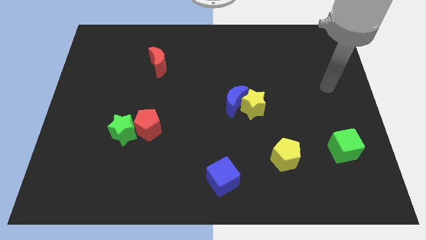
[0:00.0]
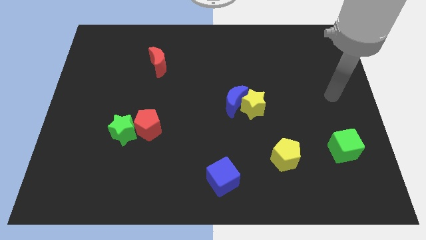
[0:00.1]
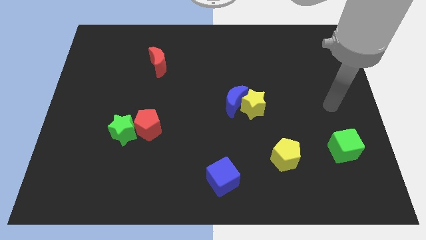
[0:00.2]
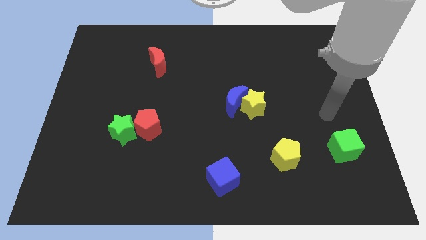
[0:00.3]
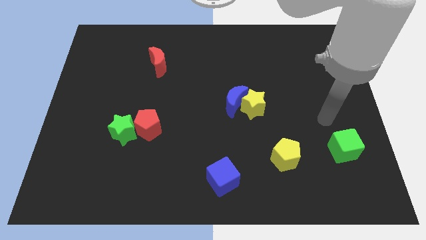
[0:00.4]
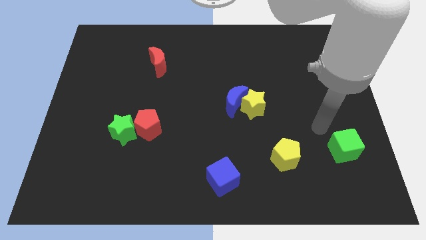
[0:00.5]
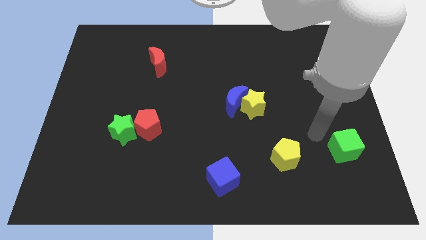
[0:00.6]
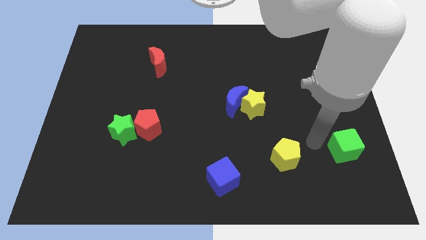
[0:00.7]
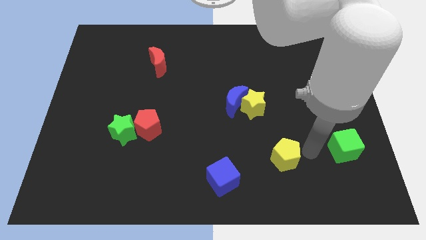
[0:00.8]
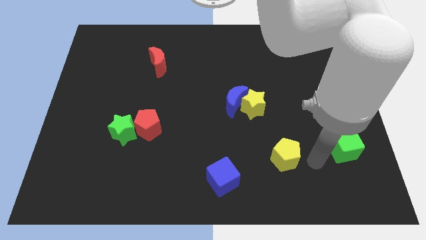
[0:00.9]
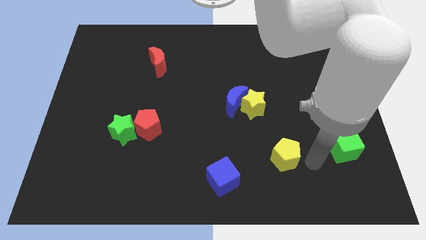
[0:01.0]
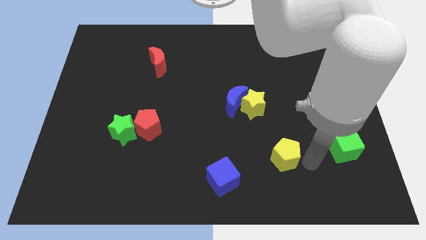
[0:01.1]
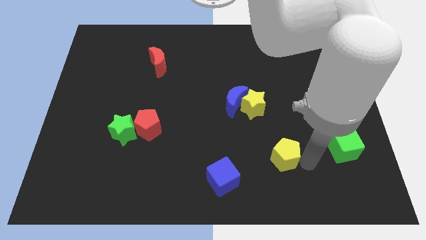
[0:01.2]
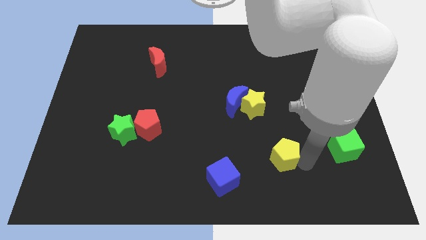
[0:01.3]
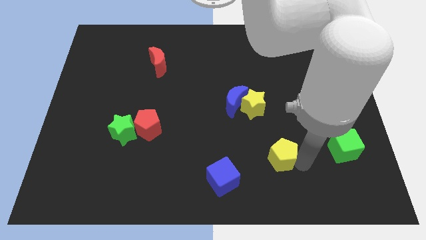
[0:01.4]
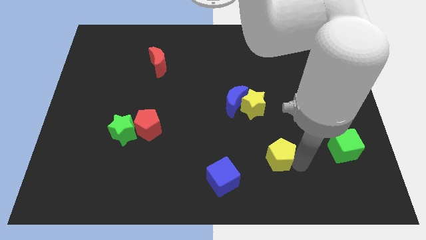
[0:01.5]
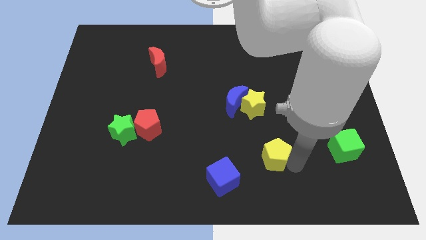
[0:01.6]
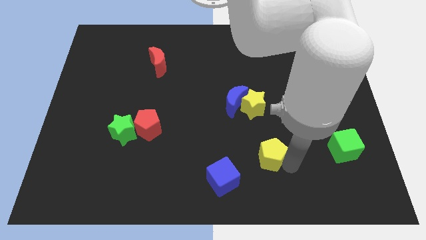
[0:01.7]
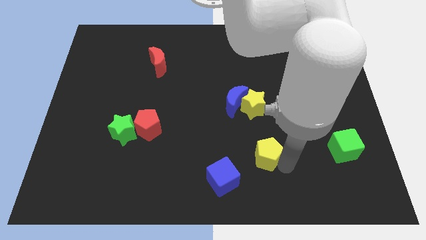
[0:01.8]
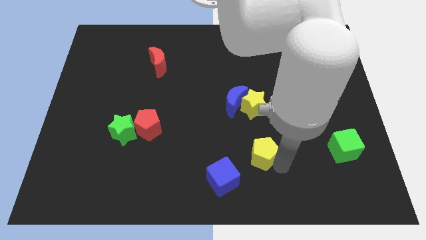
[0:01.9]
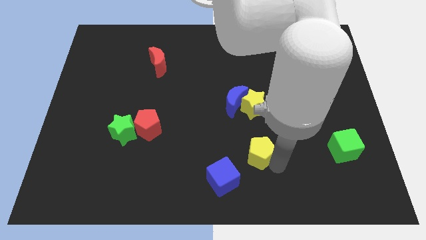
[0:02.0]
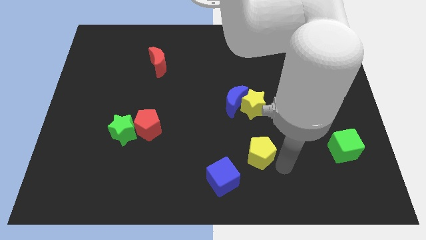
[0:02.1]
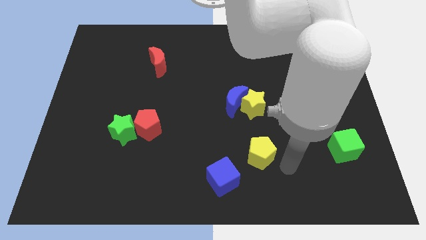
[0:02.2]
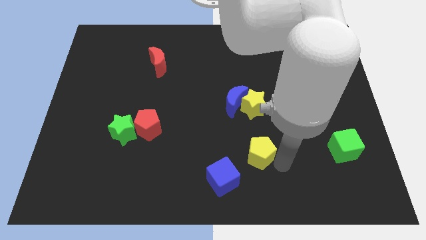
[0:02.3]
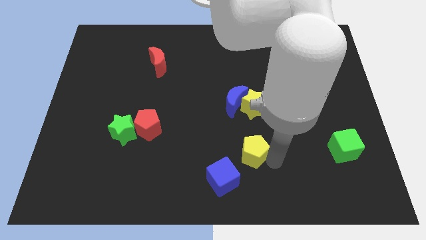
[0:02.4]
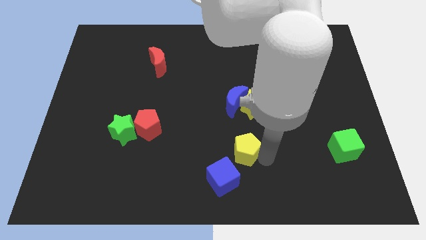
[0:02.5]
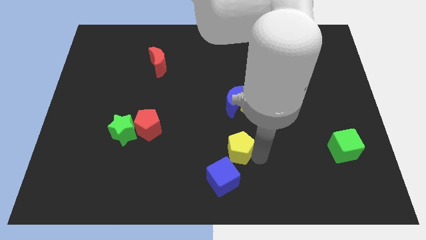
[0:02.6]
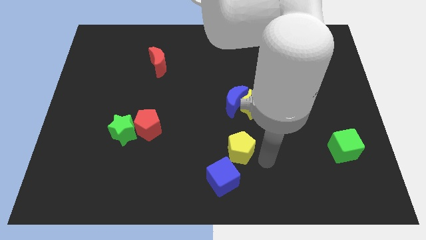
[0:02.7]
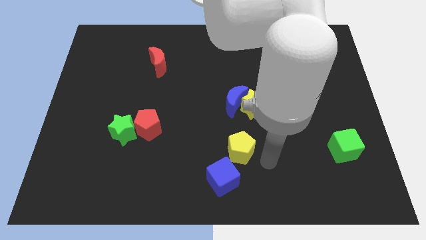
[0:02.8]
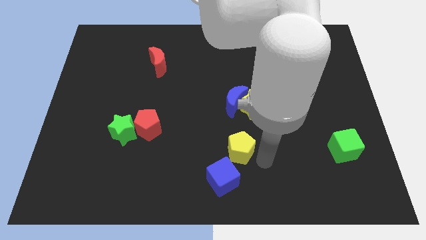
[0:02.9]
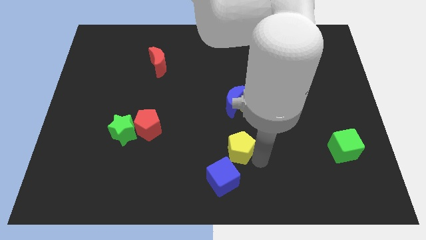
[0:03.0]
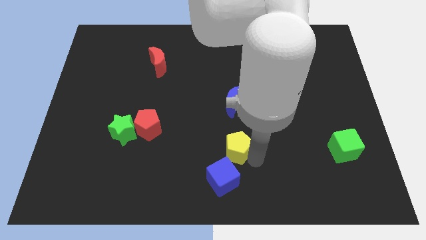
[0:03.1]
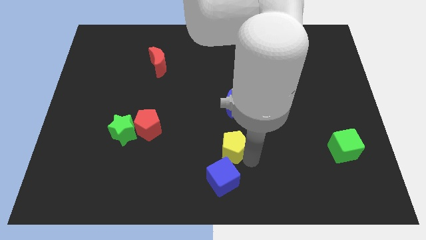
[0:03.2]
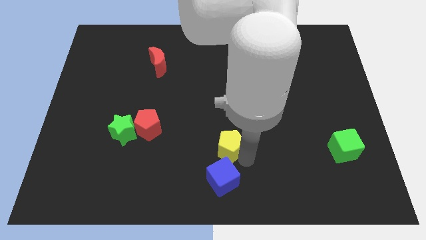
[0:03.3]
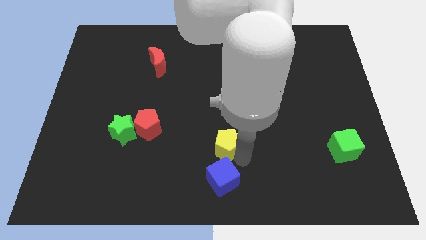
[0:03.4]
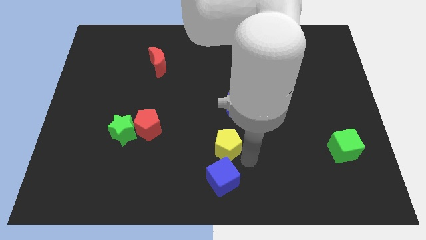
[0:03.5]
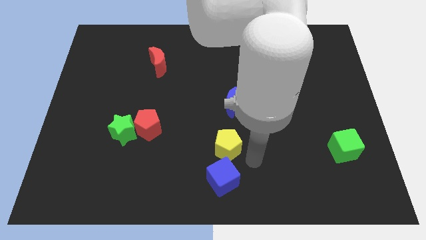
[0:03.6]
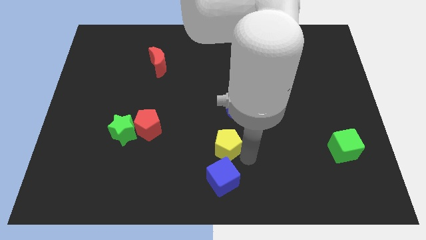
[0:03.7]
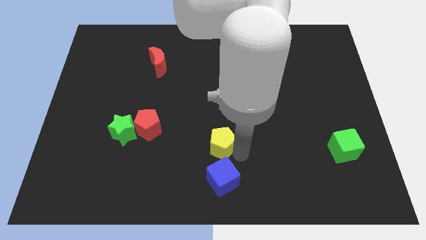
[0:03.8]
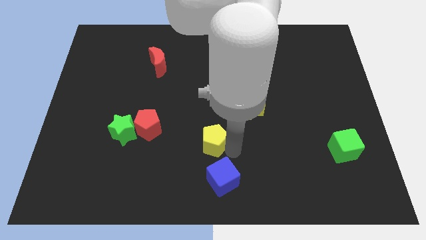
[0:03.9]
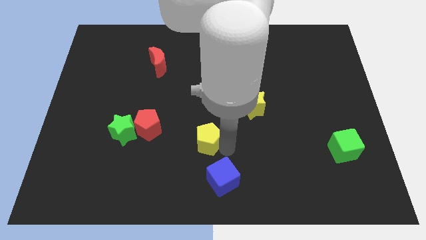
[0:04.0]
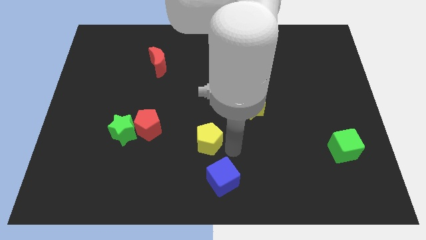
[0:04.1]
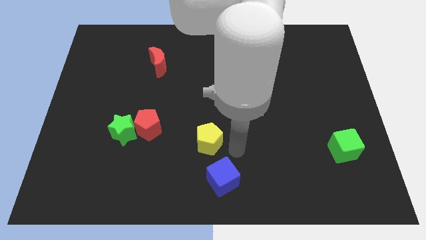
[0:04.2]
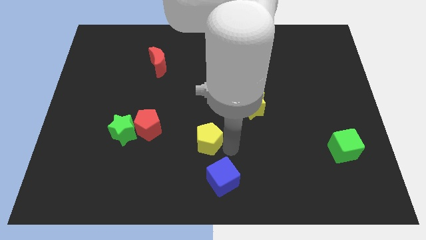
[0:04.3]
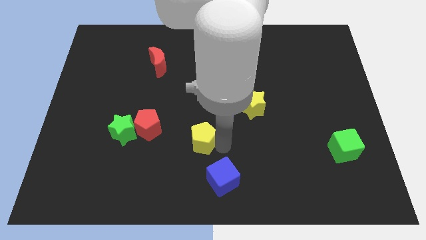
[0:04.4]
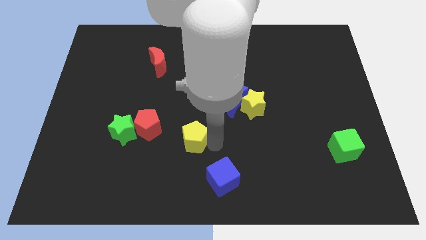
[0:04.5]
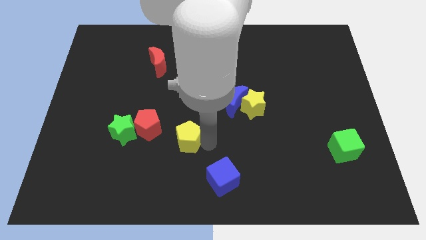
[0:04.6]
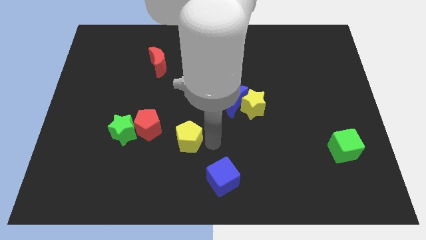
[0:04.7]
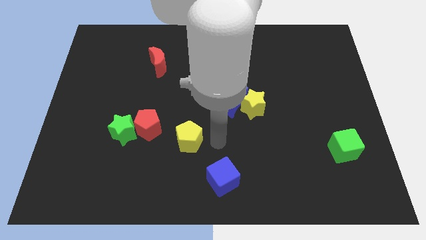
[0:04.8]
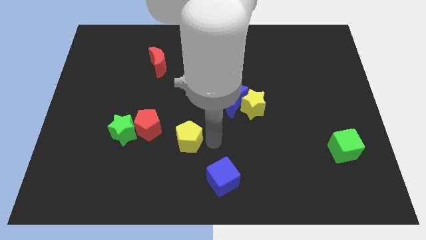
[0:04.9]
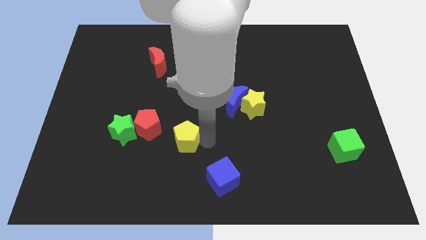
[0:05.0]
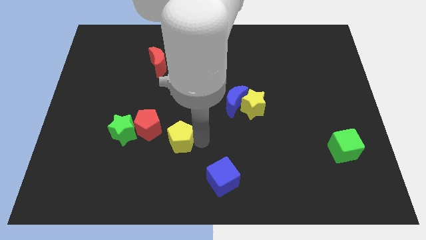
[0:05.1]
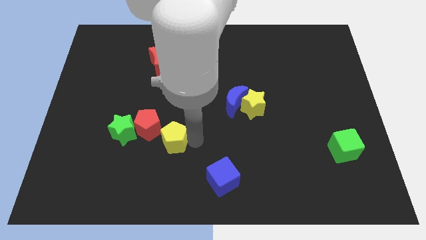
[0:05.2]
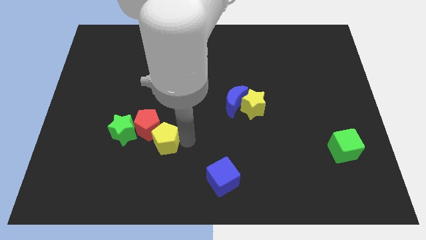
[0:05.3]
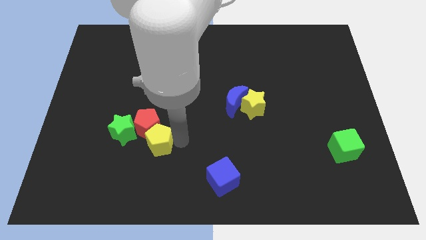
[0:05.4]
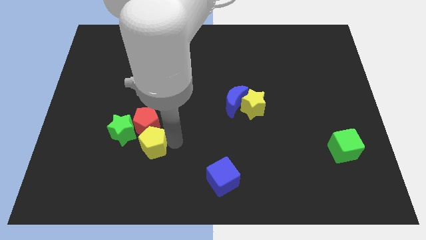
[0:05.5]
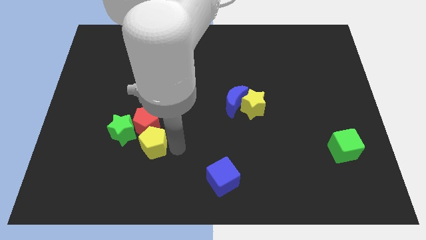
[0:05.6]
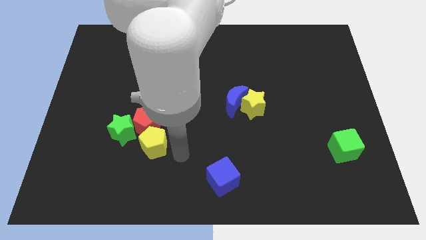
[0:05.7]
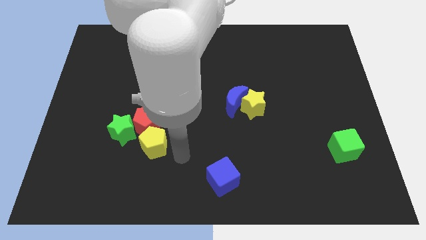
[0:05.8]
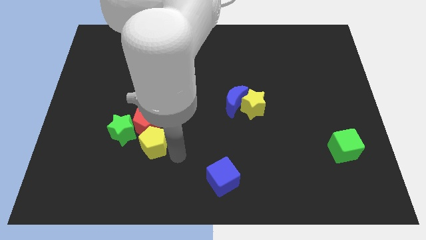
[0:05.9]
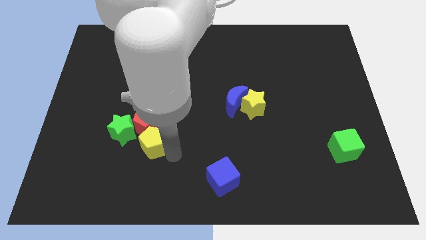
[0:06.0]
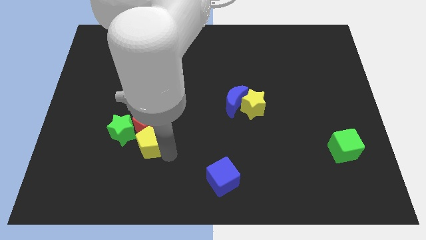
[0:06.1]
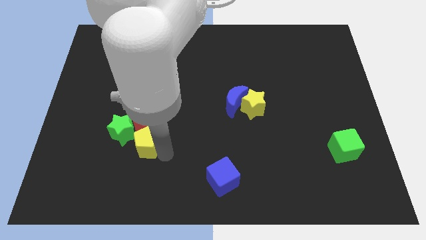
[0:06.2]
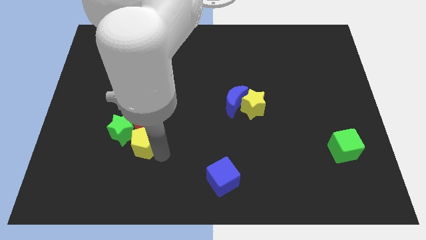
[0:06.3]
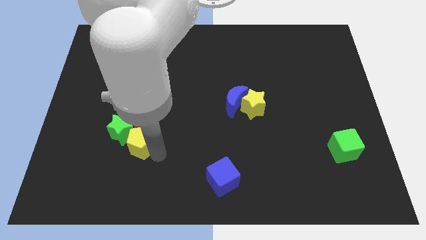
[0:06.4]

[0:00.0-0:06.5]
move the yellow pentagon next to the green star

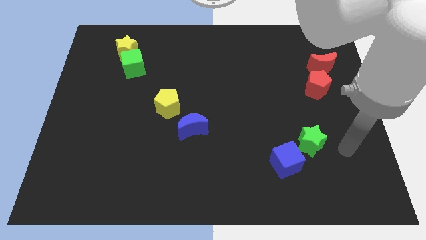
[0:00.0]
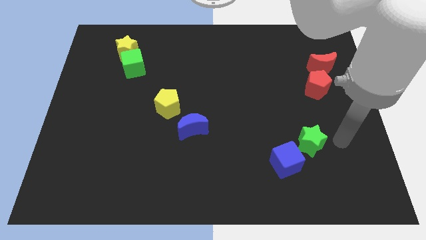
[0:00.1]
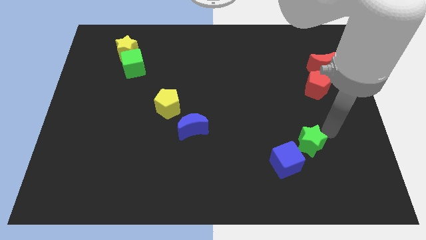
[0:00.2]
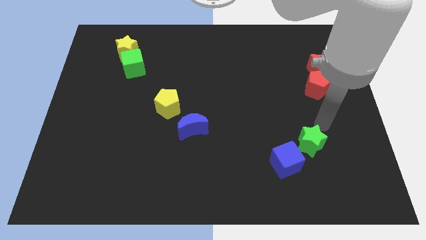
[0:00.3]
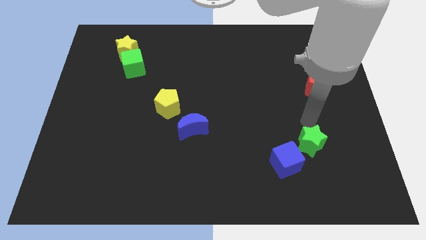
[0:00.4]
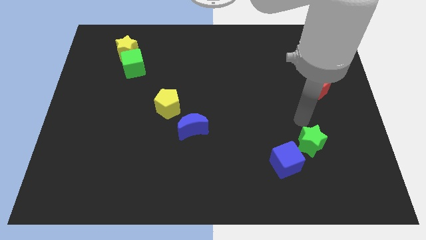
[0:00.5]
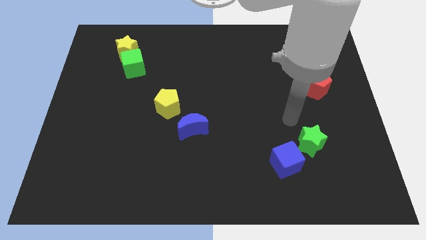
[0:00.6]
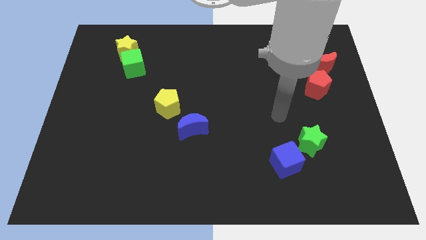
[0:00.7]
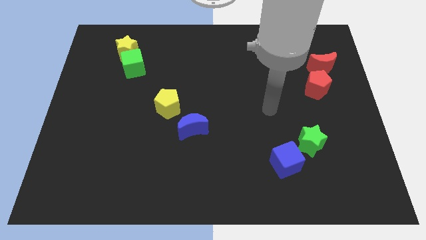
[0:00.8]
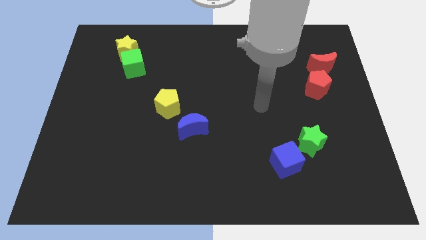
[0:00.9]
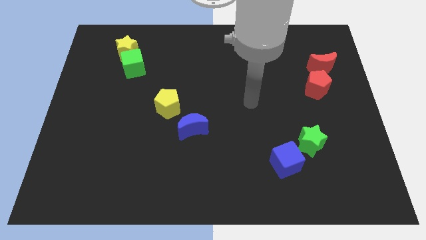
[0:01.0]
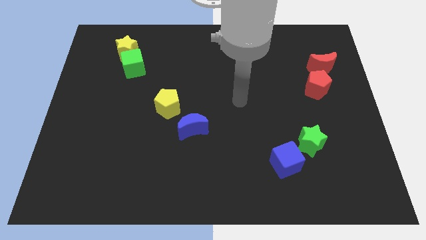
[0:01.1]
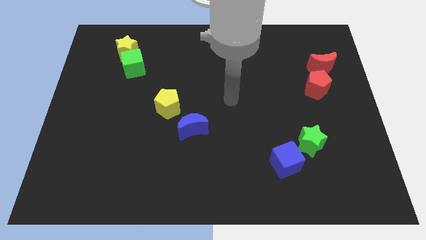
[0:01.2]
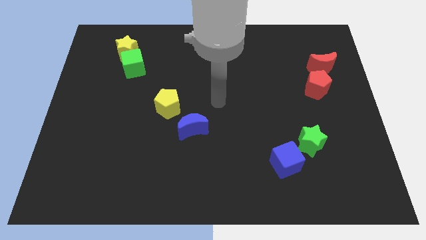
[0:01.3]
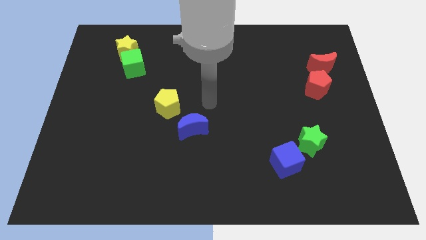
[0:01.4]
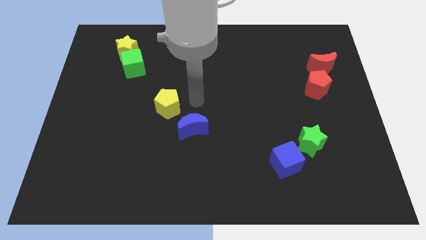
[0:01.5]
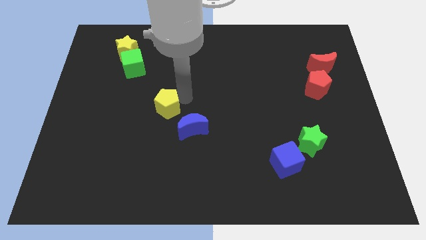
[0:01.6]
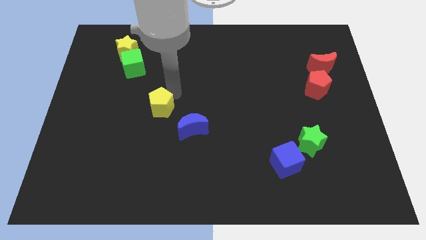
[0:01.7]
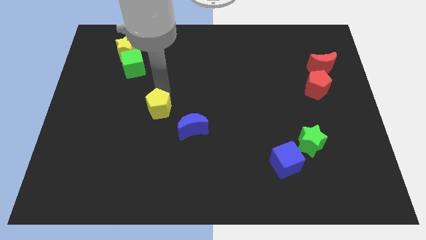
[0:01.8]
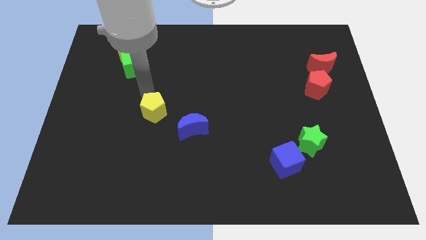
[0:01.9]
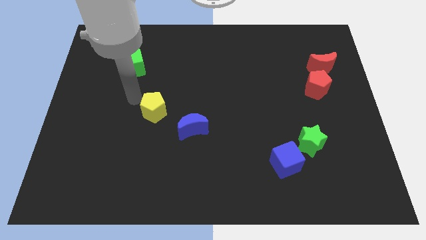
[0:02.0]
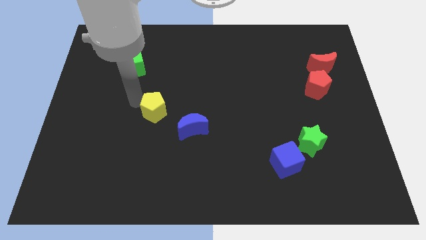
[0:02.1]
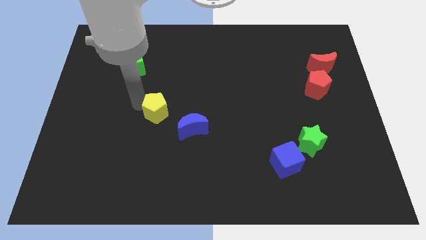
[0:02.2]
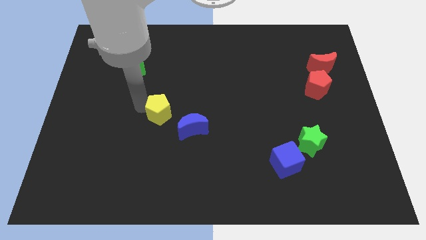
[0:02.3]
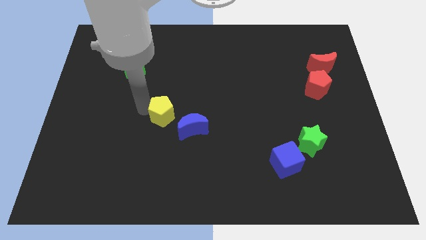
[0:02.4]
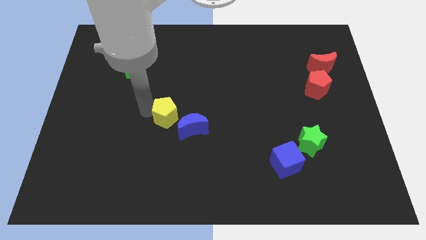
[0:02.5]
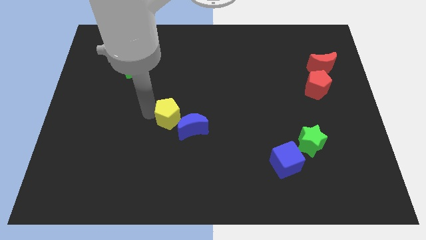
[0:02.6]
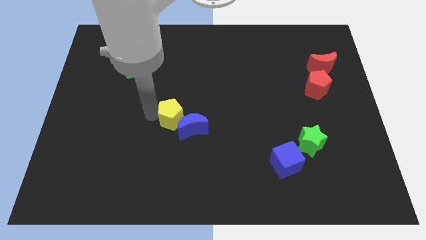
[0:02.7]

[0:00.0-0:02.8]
move the yellow pentagon to the blue moon
